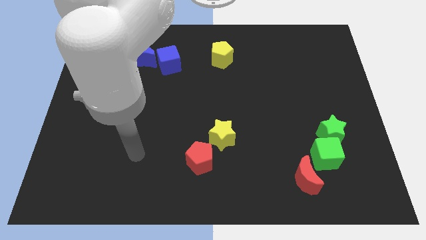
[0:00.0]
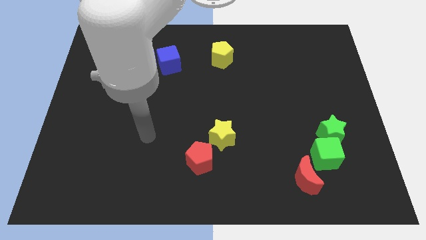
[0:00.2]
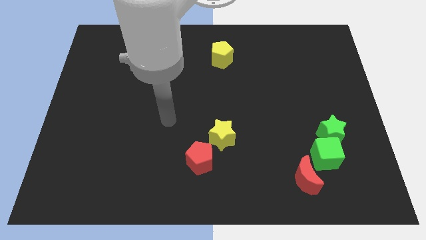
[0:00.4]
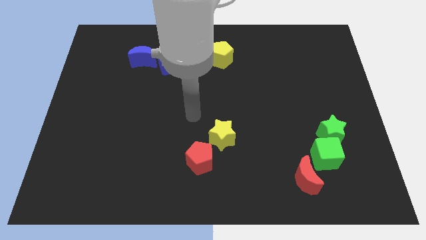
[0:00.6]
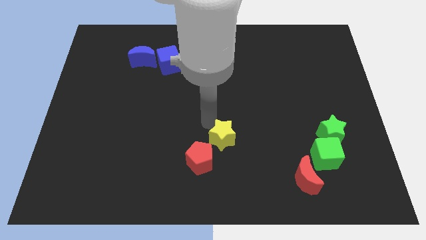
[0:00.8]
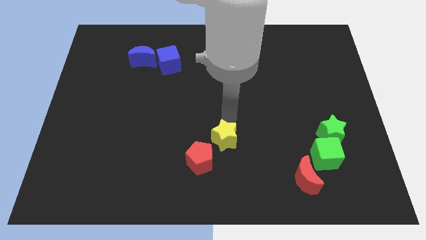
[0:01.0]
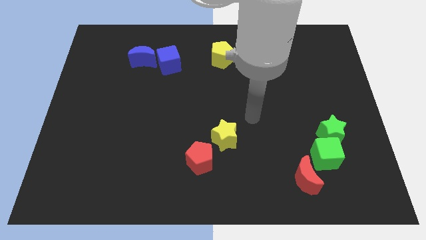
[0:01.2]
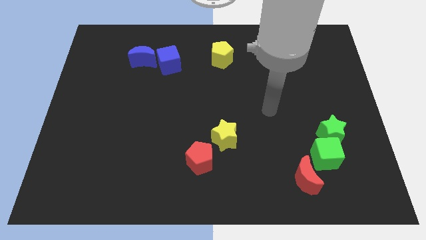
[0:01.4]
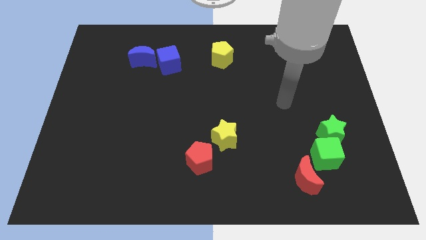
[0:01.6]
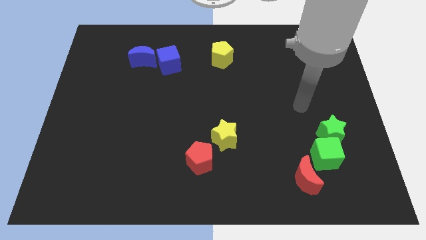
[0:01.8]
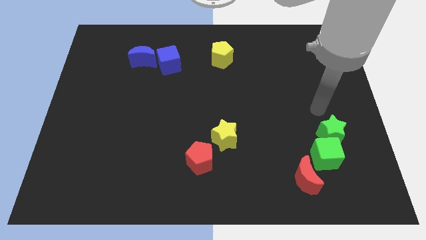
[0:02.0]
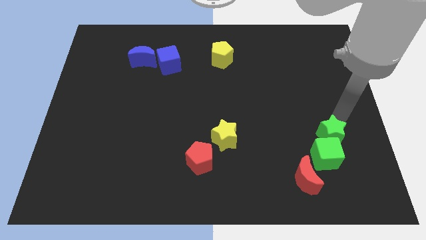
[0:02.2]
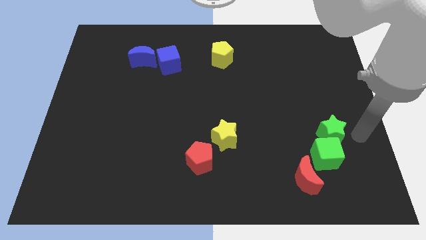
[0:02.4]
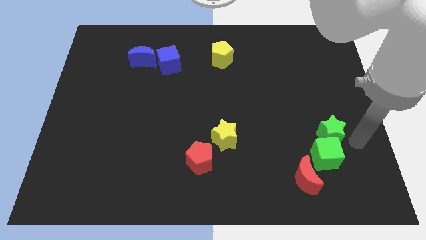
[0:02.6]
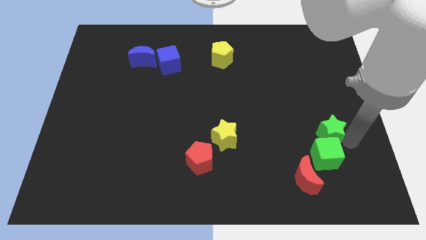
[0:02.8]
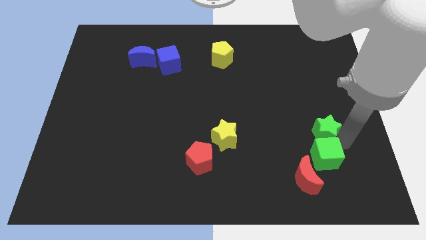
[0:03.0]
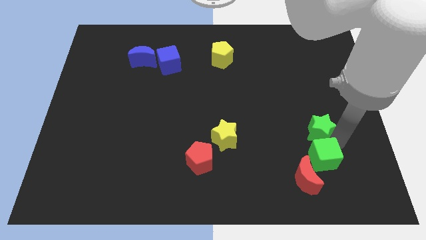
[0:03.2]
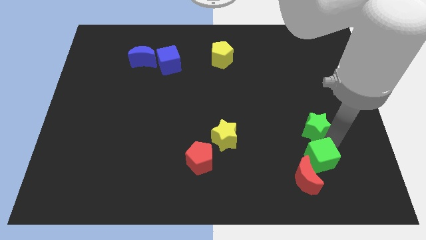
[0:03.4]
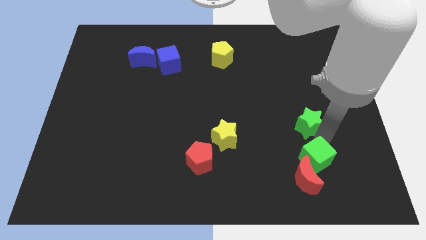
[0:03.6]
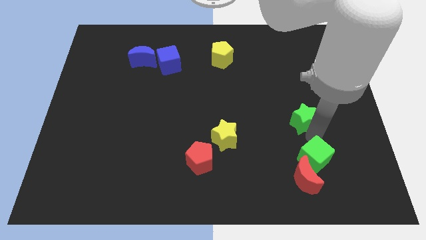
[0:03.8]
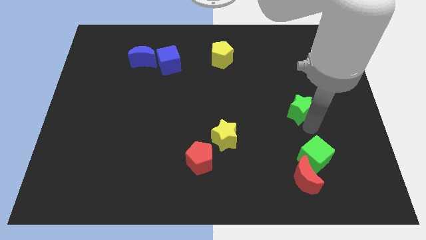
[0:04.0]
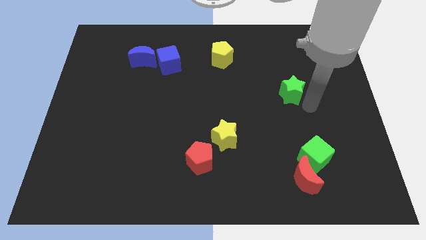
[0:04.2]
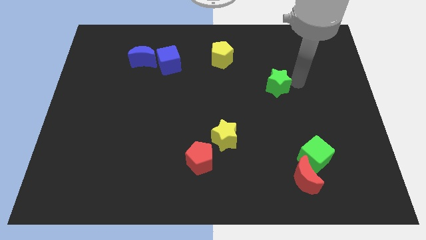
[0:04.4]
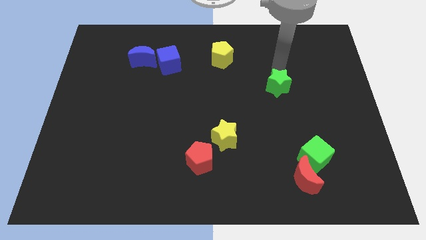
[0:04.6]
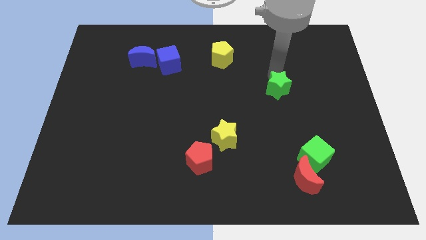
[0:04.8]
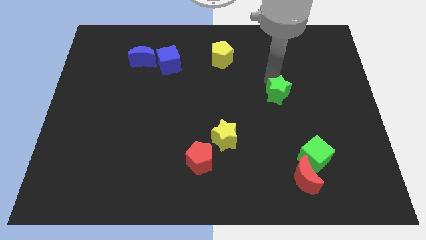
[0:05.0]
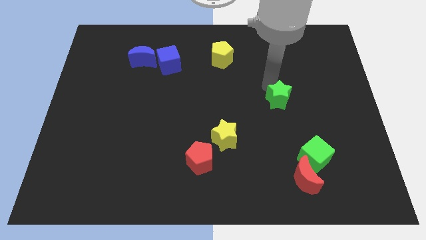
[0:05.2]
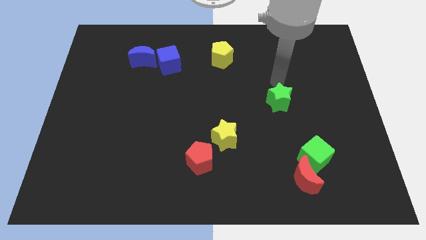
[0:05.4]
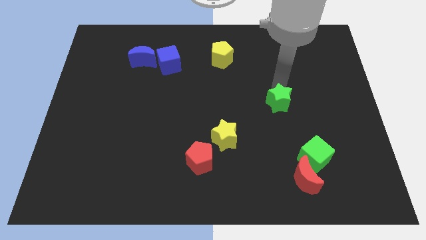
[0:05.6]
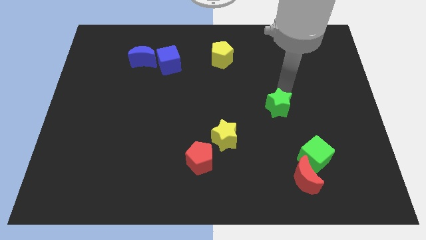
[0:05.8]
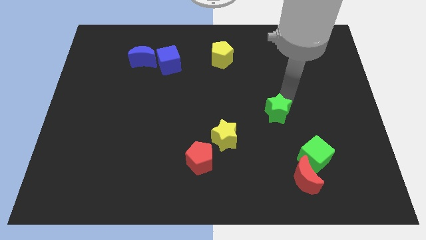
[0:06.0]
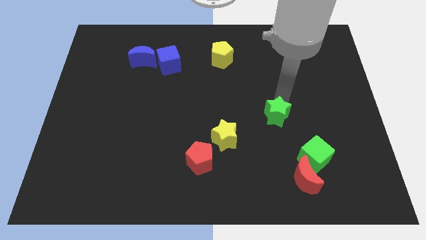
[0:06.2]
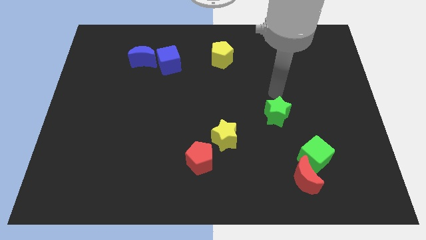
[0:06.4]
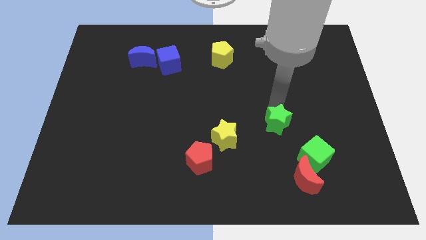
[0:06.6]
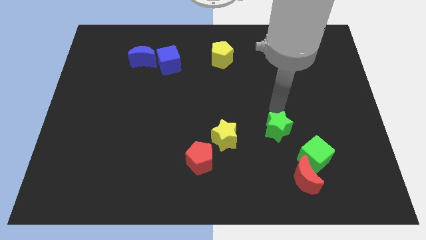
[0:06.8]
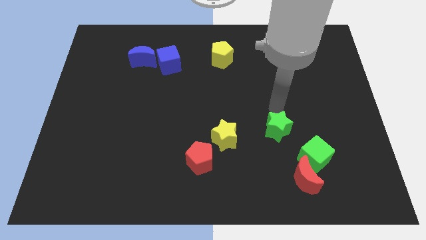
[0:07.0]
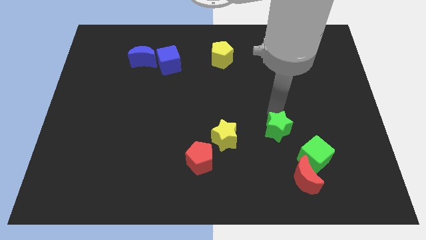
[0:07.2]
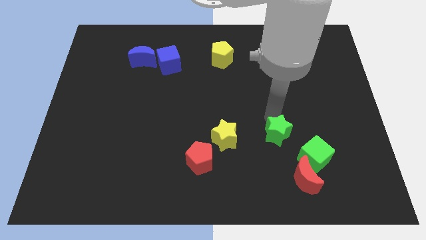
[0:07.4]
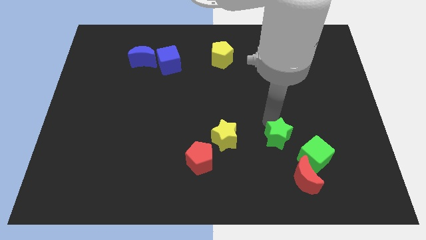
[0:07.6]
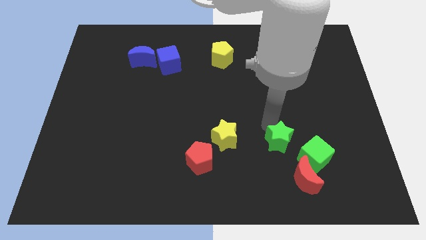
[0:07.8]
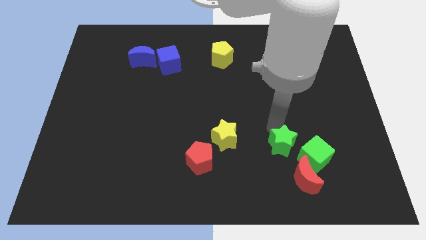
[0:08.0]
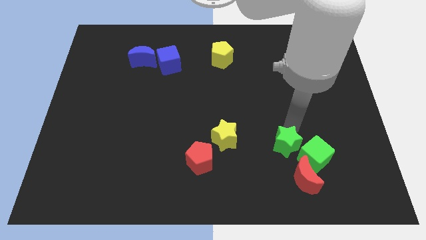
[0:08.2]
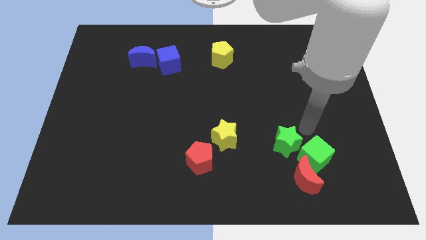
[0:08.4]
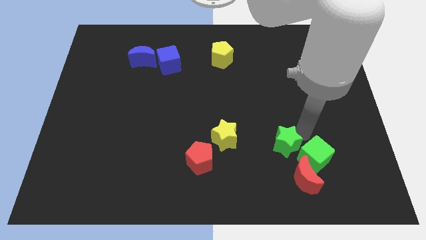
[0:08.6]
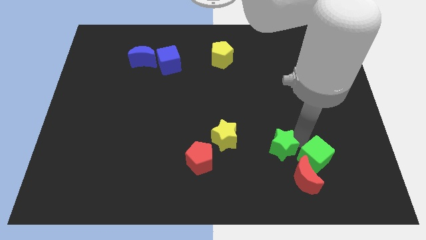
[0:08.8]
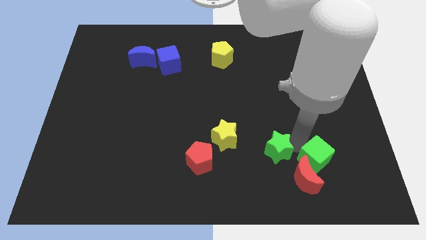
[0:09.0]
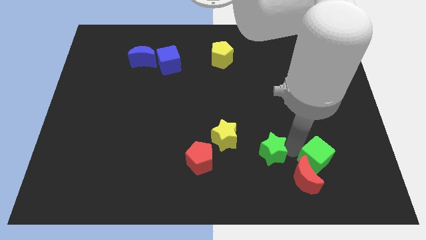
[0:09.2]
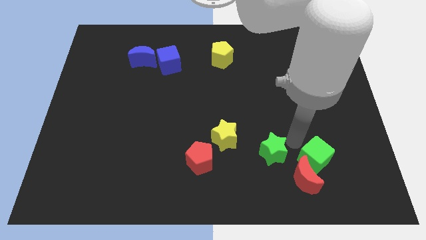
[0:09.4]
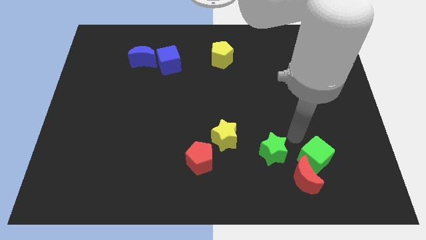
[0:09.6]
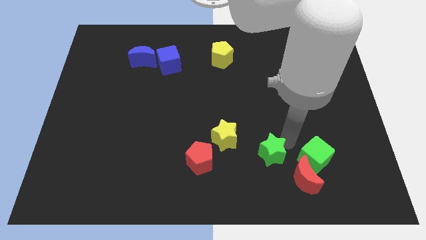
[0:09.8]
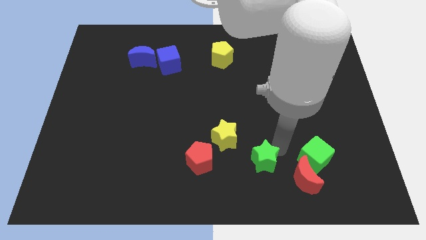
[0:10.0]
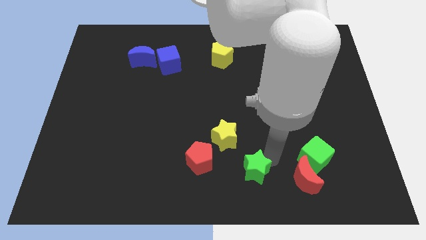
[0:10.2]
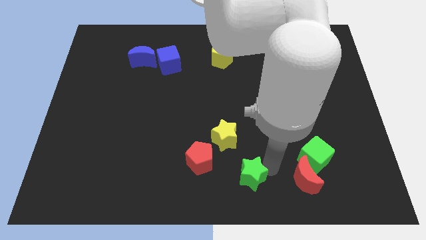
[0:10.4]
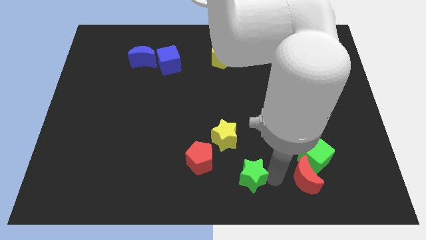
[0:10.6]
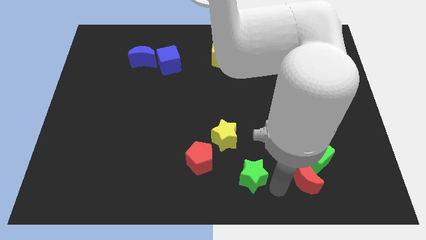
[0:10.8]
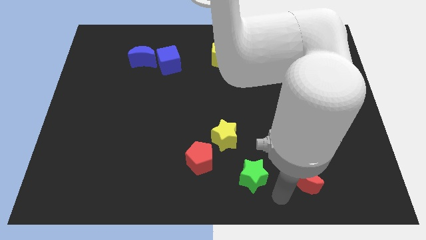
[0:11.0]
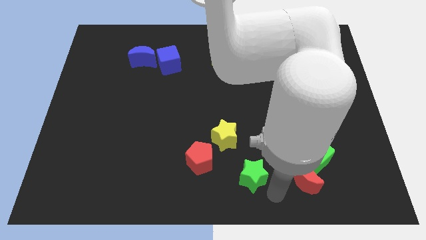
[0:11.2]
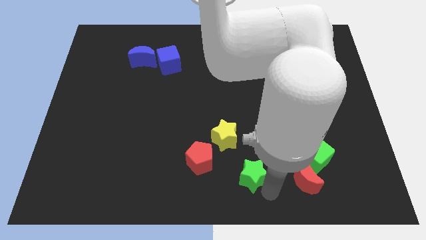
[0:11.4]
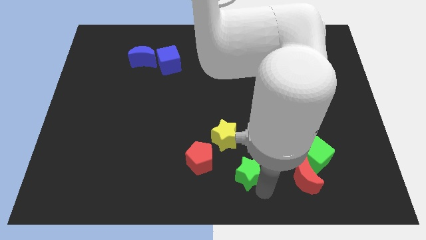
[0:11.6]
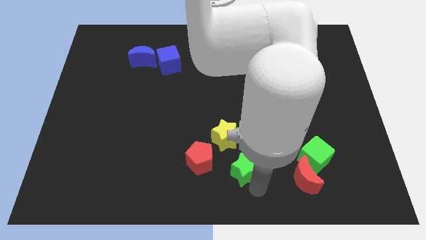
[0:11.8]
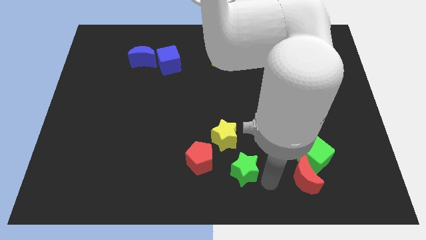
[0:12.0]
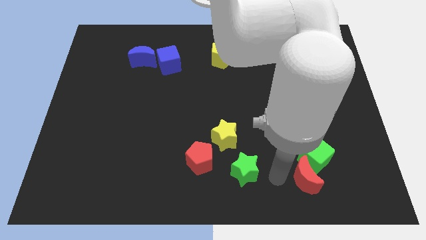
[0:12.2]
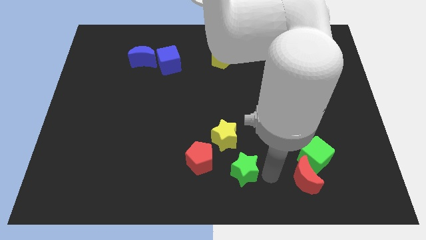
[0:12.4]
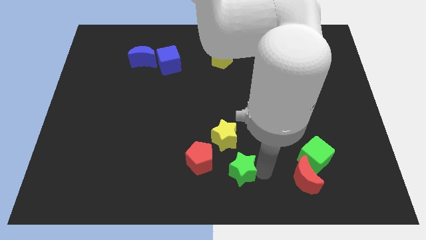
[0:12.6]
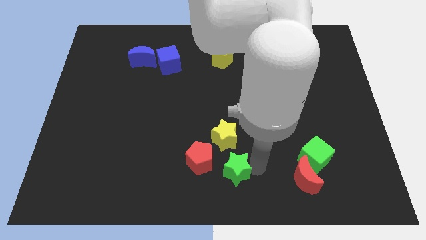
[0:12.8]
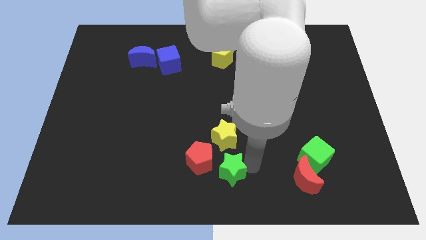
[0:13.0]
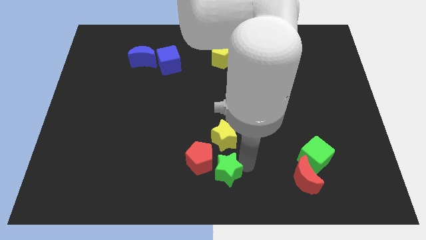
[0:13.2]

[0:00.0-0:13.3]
move the green star towards the red pentagon

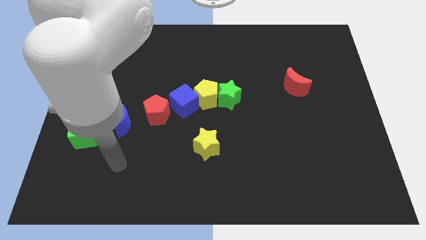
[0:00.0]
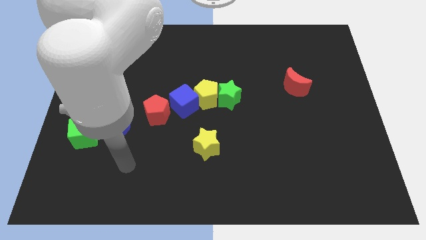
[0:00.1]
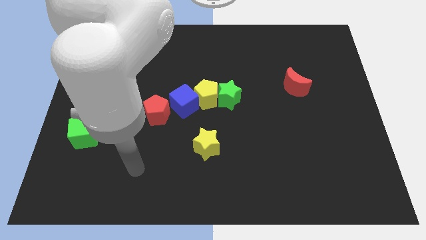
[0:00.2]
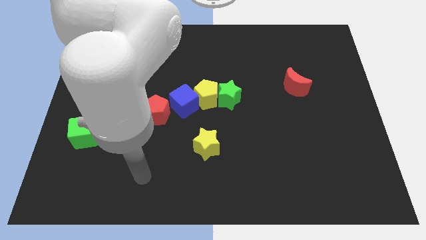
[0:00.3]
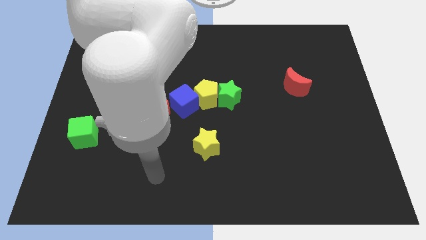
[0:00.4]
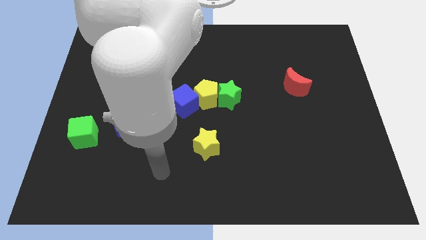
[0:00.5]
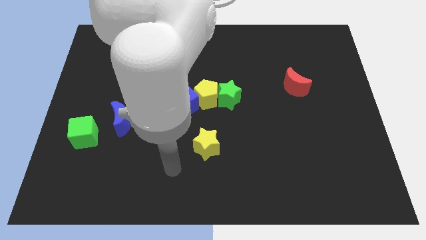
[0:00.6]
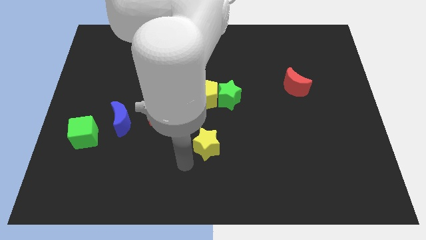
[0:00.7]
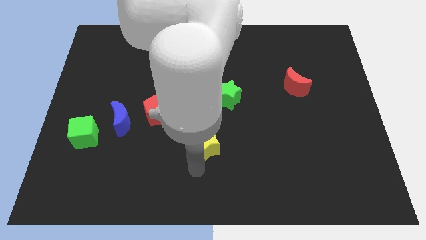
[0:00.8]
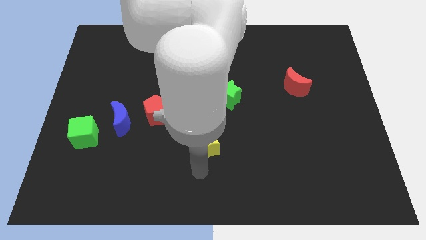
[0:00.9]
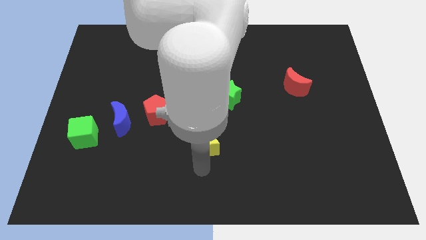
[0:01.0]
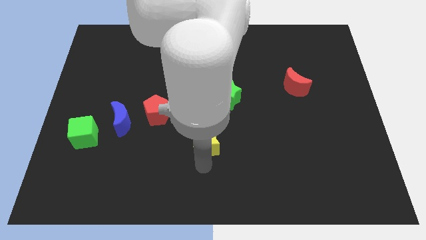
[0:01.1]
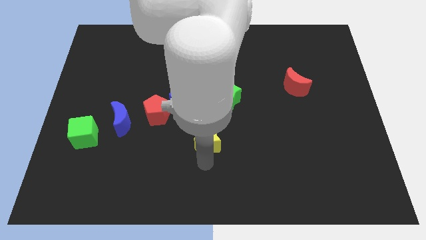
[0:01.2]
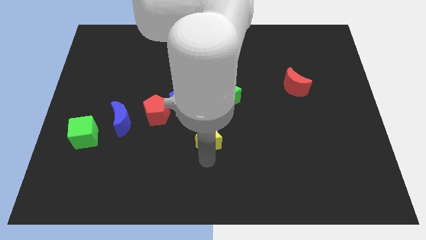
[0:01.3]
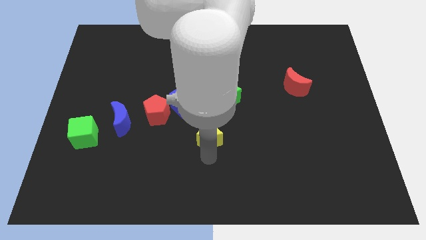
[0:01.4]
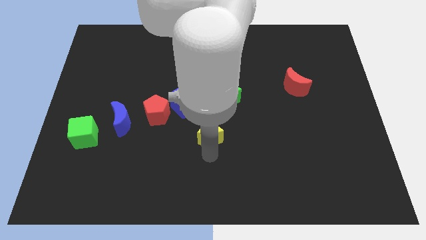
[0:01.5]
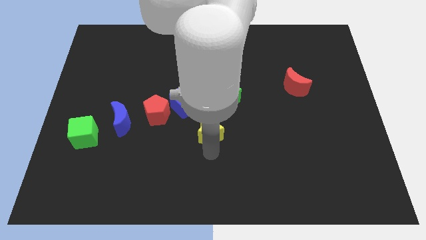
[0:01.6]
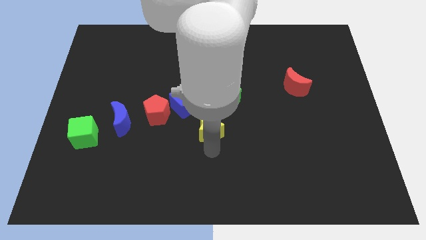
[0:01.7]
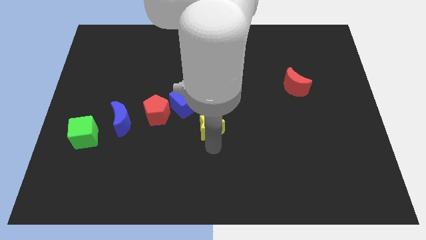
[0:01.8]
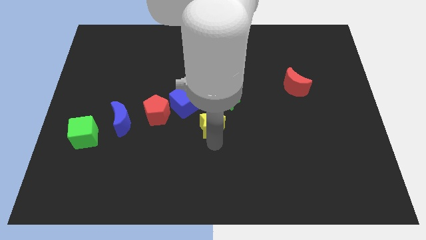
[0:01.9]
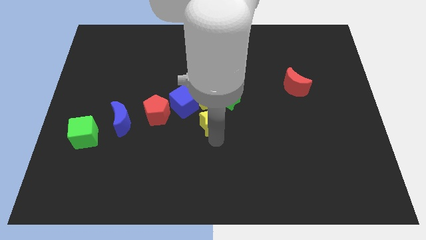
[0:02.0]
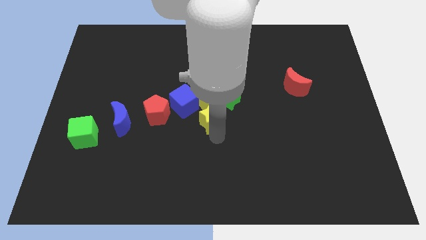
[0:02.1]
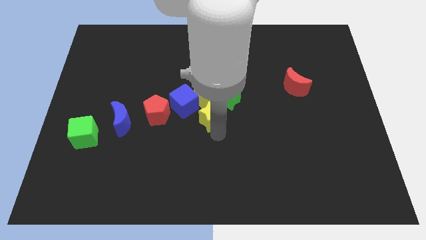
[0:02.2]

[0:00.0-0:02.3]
slide the yellow star close to the yellow pentagon
